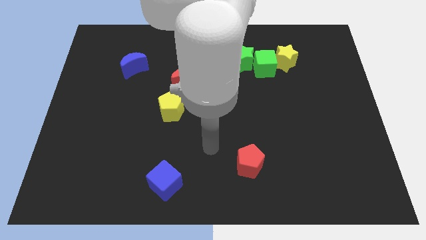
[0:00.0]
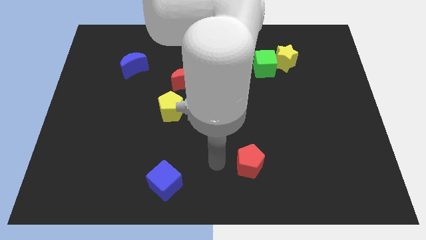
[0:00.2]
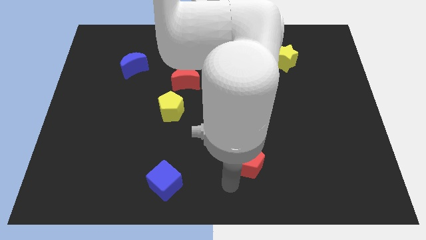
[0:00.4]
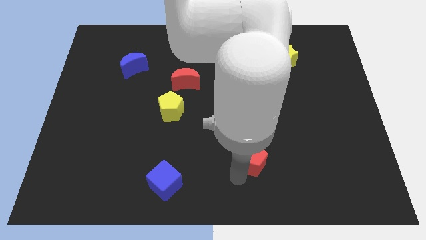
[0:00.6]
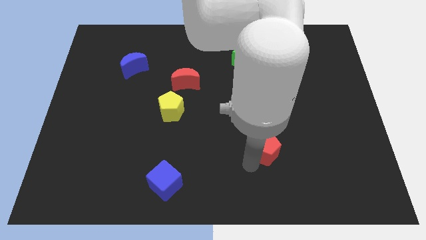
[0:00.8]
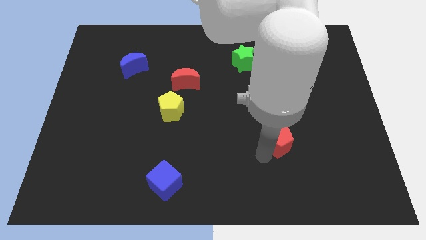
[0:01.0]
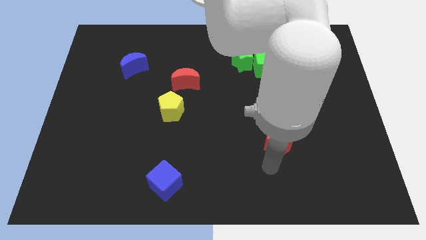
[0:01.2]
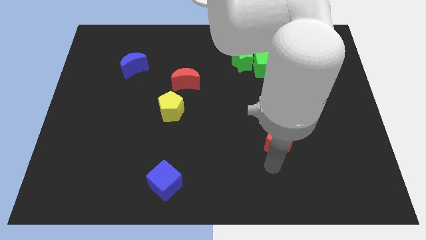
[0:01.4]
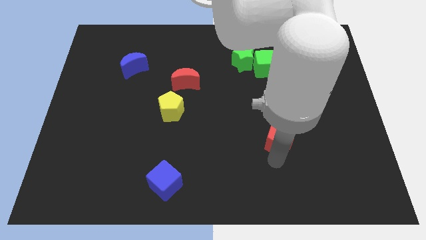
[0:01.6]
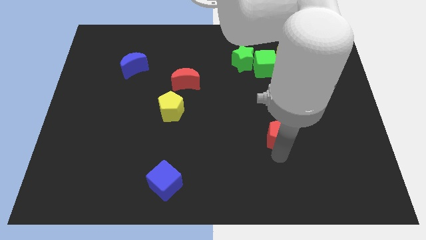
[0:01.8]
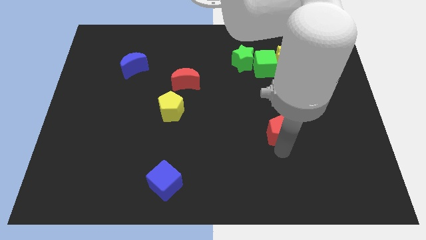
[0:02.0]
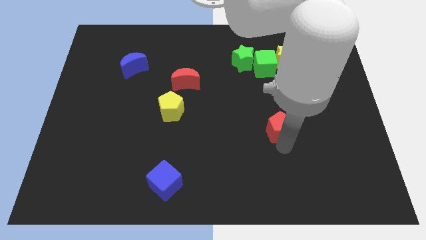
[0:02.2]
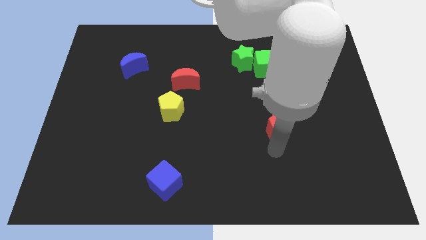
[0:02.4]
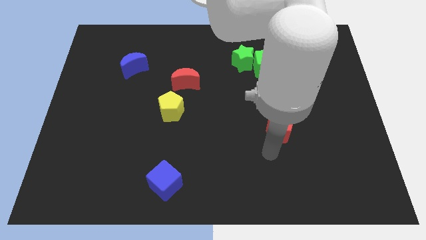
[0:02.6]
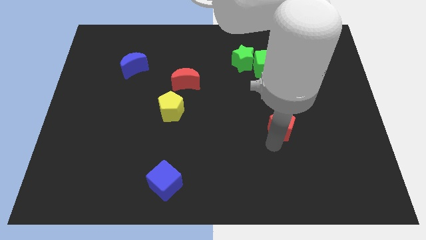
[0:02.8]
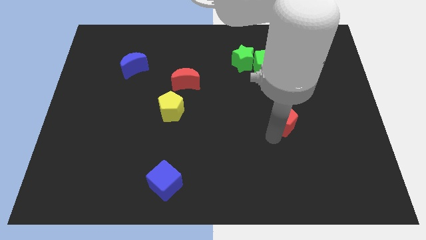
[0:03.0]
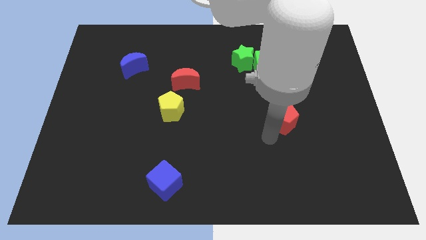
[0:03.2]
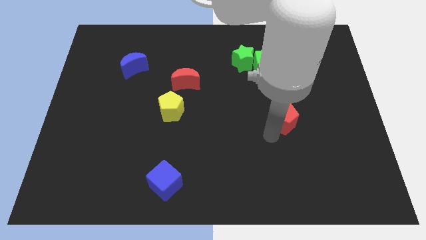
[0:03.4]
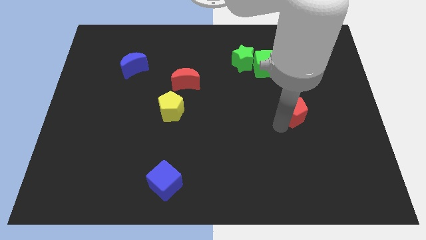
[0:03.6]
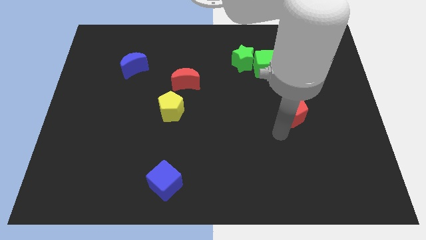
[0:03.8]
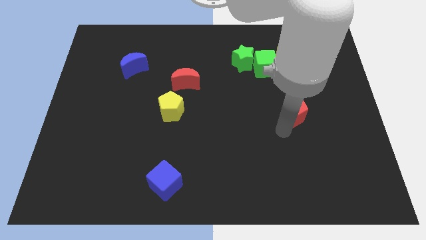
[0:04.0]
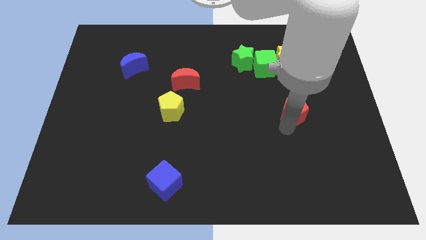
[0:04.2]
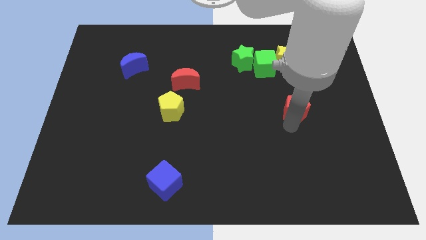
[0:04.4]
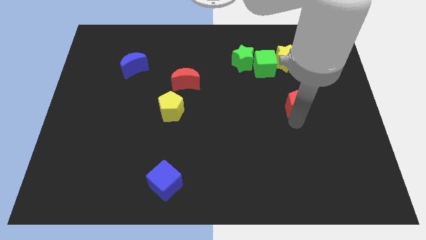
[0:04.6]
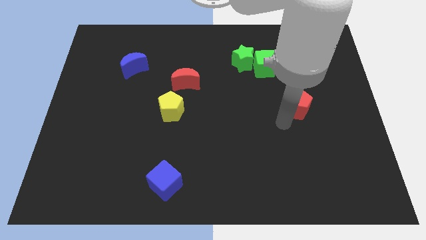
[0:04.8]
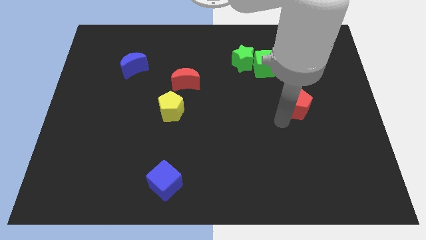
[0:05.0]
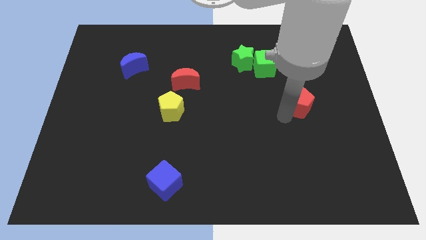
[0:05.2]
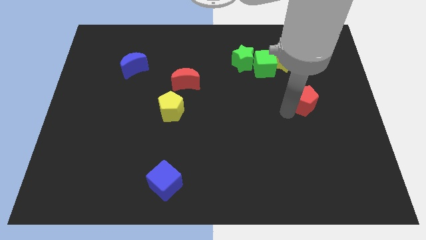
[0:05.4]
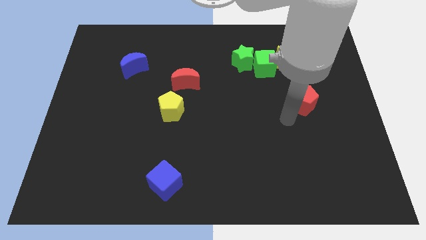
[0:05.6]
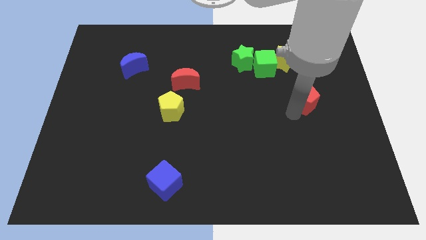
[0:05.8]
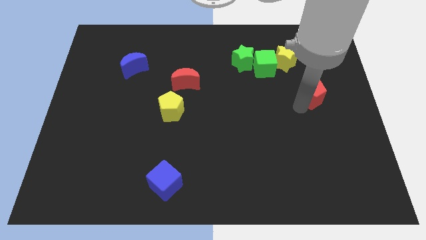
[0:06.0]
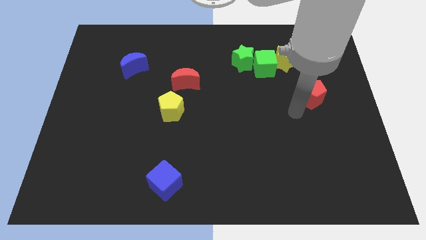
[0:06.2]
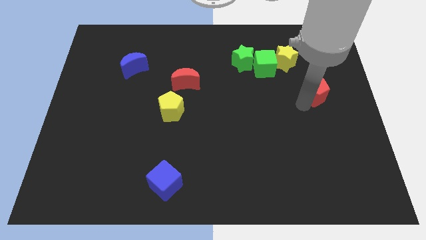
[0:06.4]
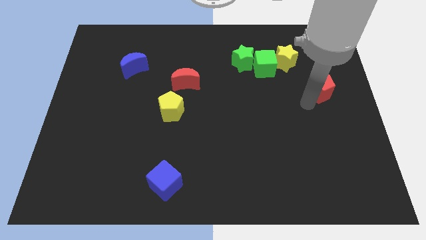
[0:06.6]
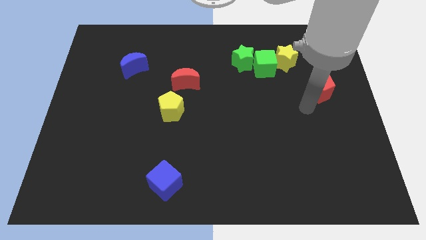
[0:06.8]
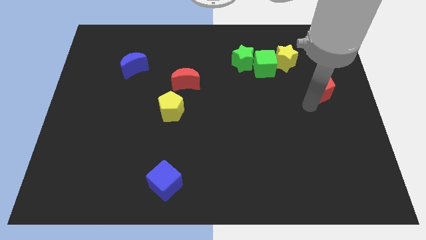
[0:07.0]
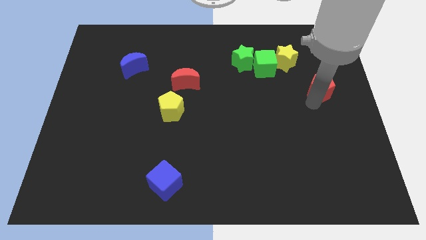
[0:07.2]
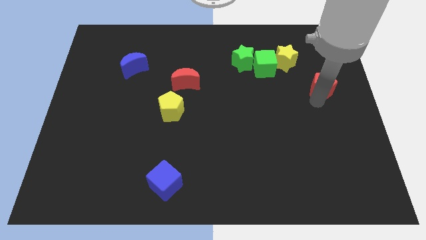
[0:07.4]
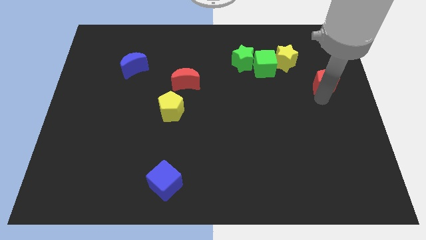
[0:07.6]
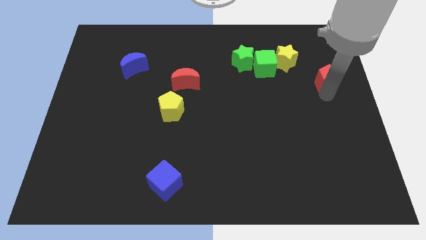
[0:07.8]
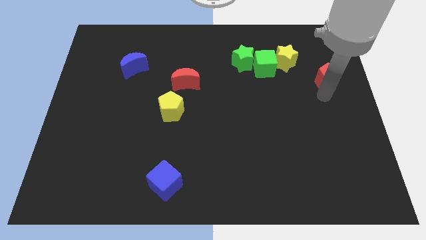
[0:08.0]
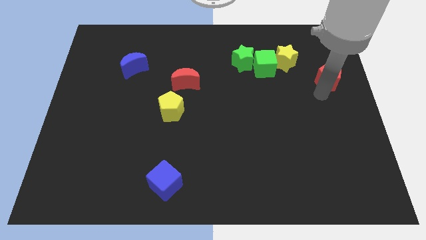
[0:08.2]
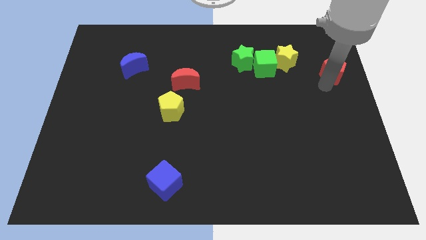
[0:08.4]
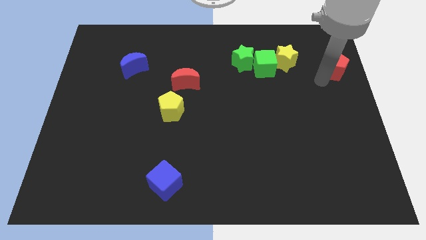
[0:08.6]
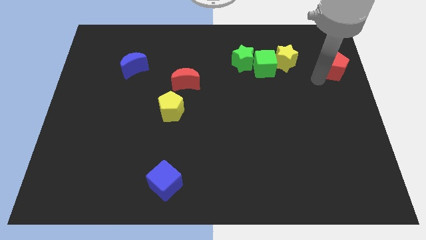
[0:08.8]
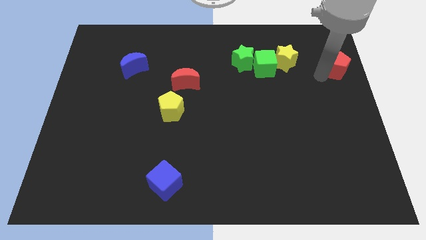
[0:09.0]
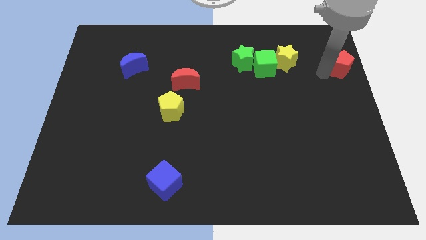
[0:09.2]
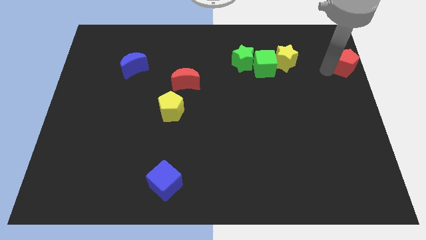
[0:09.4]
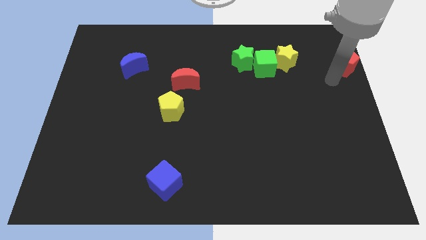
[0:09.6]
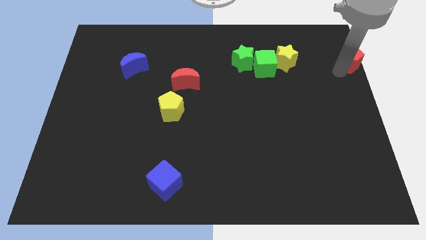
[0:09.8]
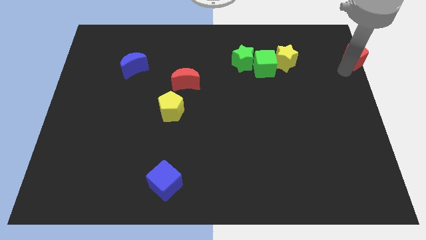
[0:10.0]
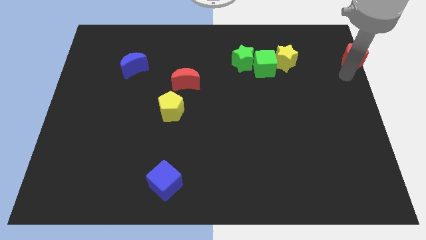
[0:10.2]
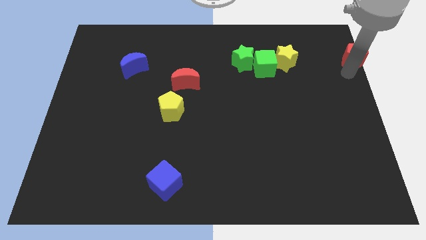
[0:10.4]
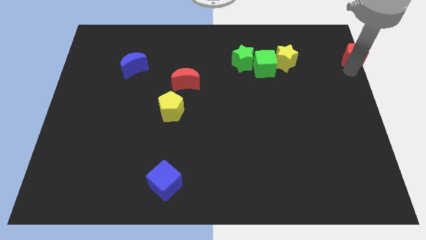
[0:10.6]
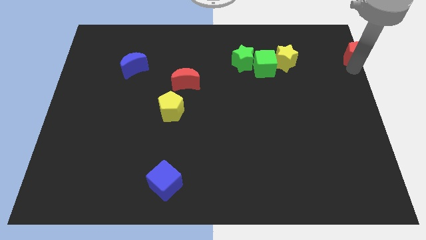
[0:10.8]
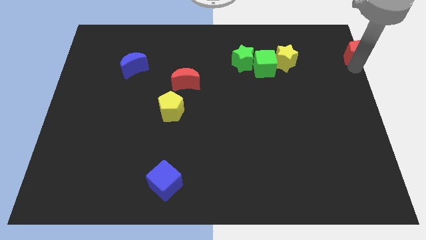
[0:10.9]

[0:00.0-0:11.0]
put the red pentagon to the top right of the board

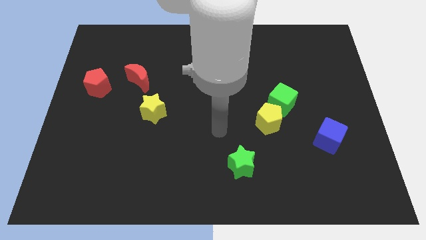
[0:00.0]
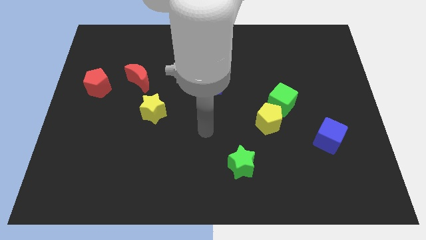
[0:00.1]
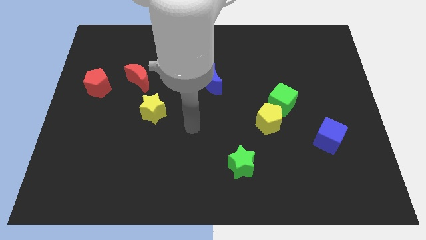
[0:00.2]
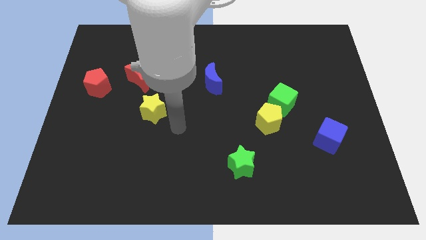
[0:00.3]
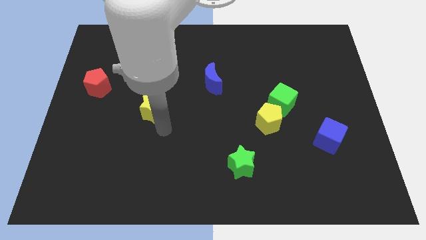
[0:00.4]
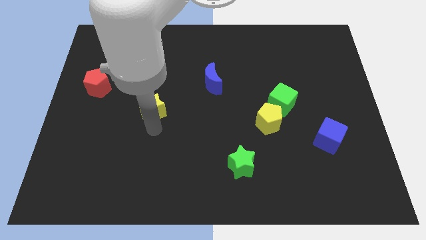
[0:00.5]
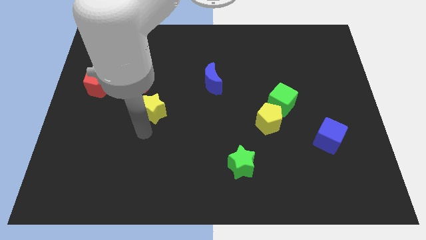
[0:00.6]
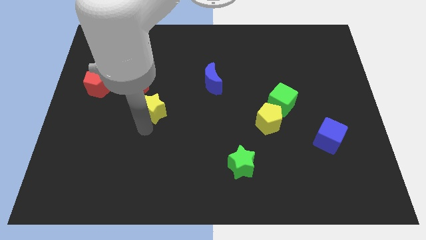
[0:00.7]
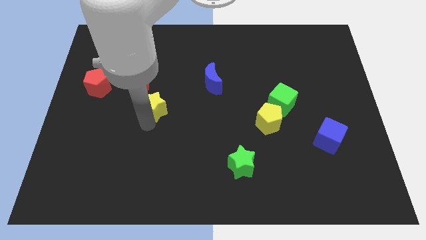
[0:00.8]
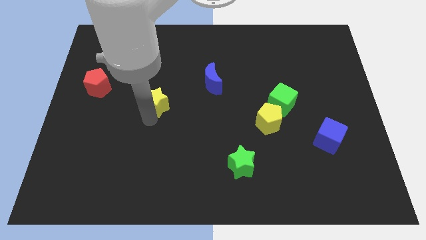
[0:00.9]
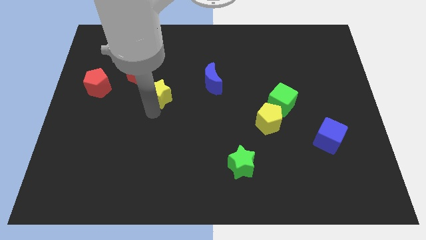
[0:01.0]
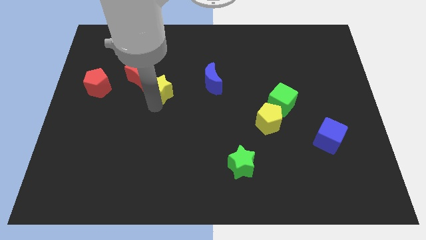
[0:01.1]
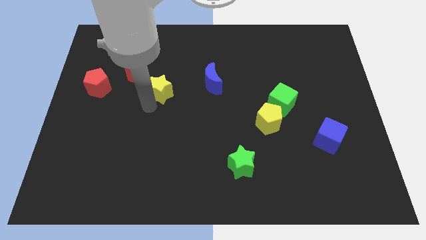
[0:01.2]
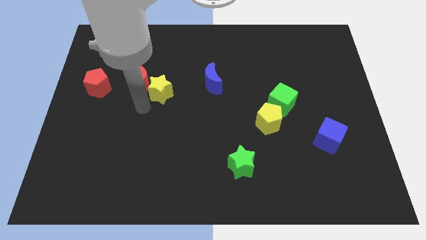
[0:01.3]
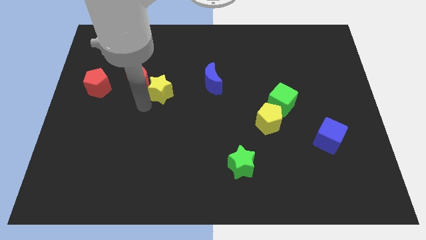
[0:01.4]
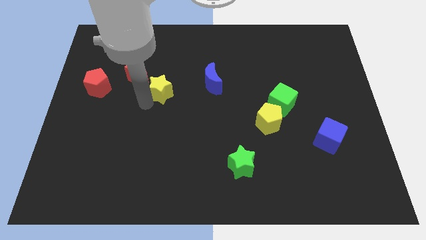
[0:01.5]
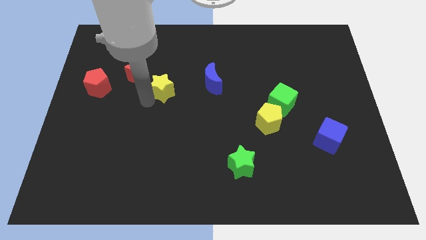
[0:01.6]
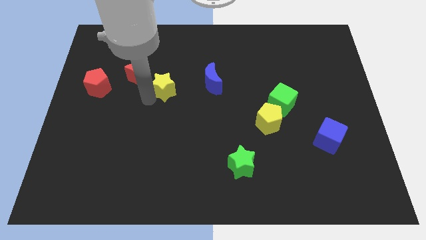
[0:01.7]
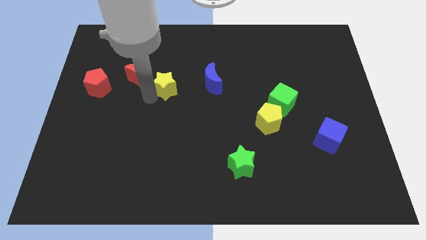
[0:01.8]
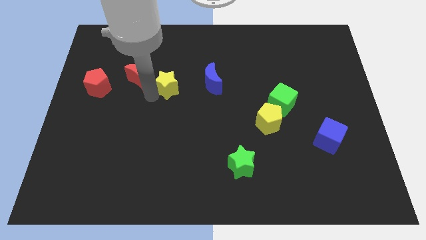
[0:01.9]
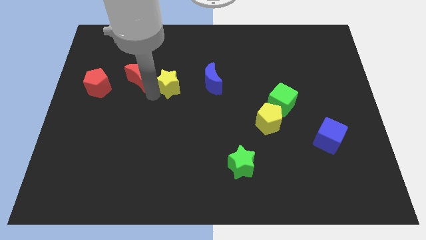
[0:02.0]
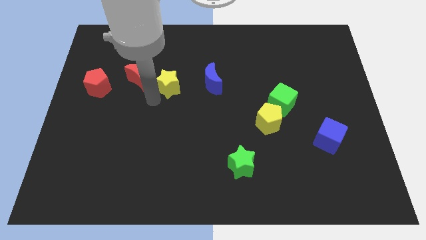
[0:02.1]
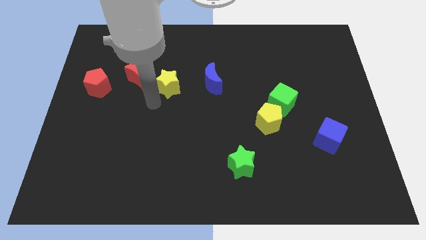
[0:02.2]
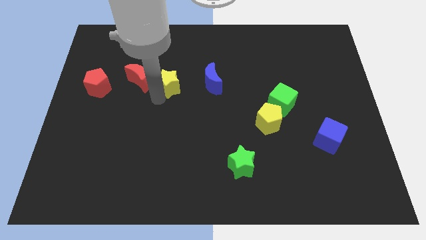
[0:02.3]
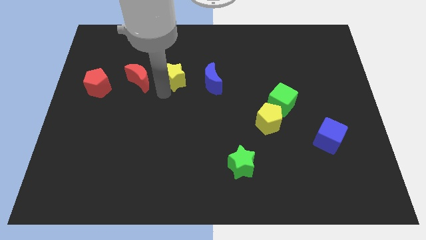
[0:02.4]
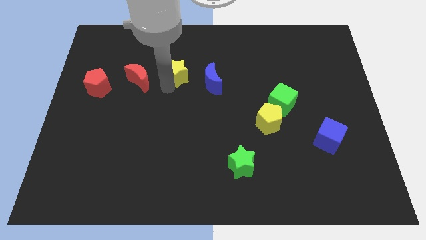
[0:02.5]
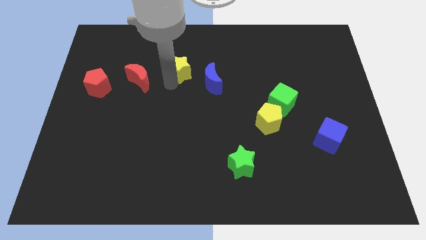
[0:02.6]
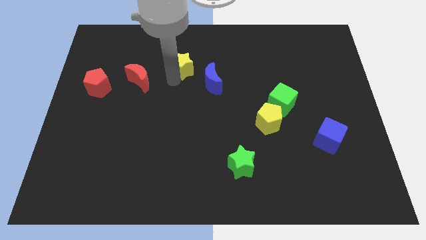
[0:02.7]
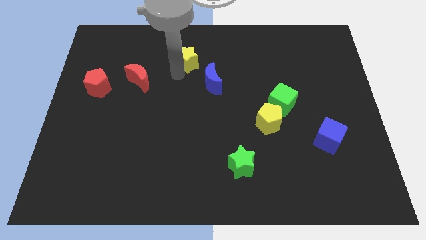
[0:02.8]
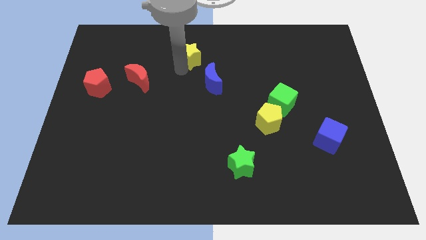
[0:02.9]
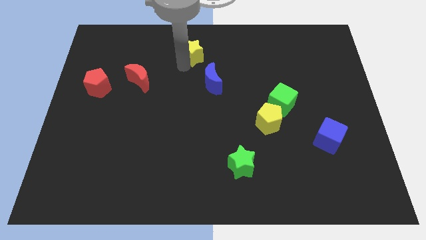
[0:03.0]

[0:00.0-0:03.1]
slide the yellow star to the towards your base
